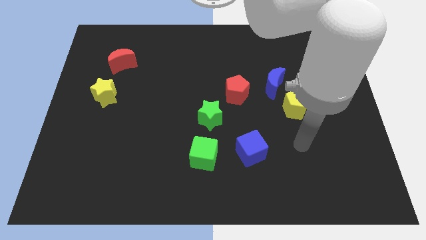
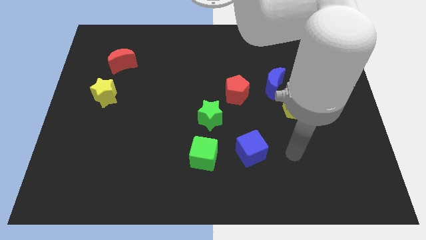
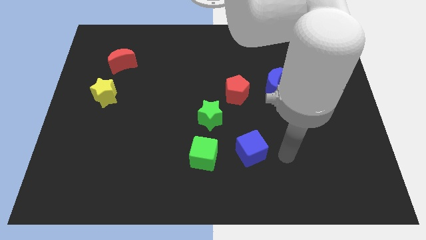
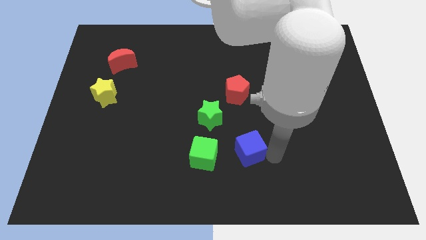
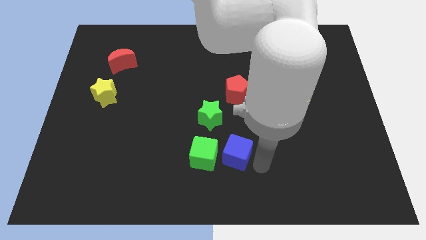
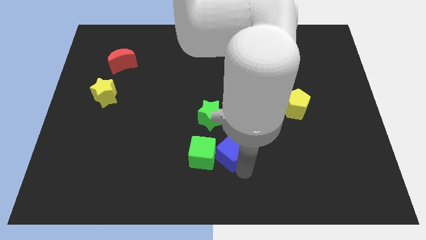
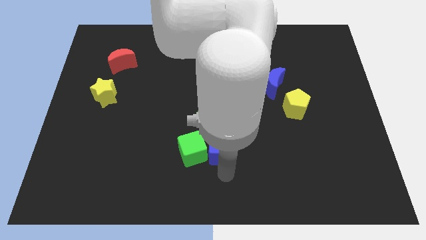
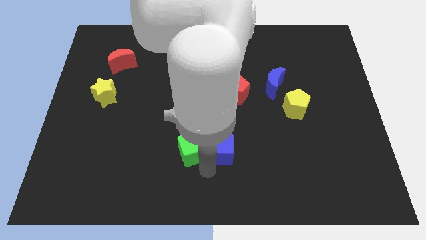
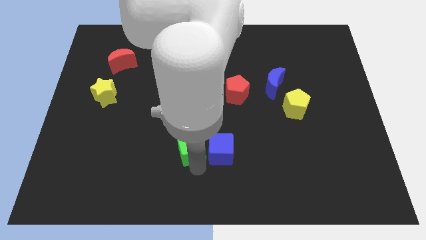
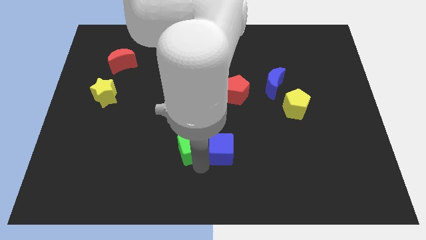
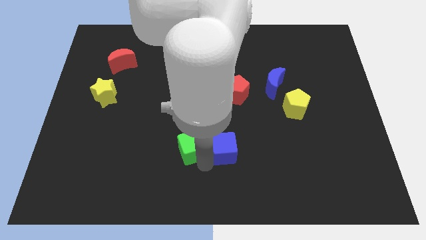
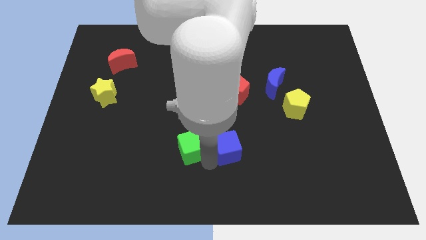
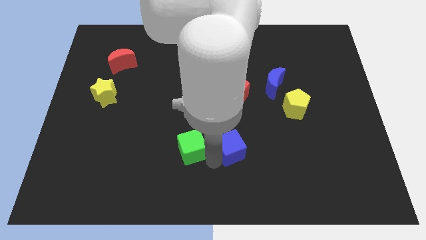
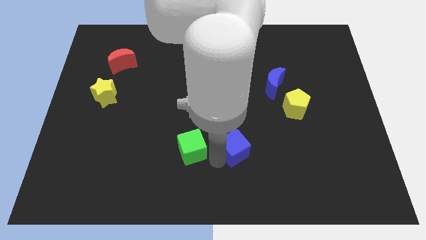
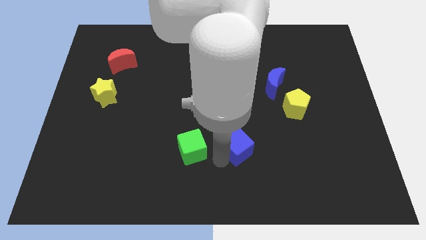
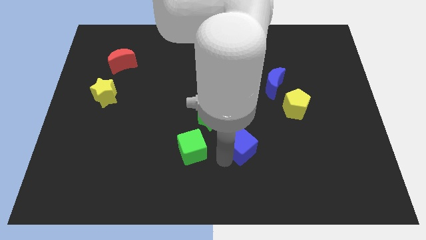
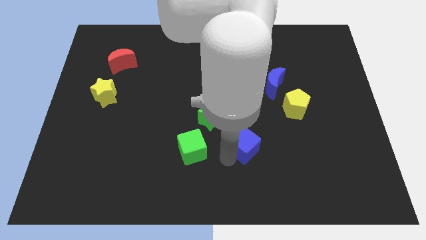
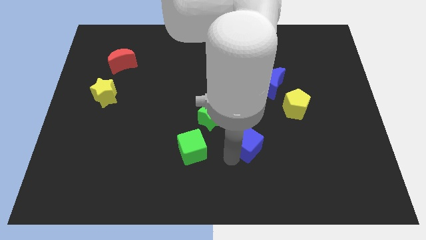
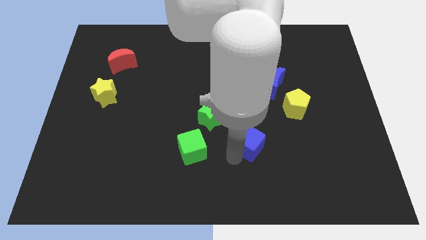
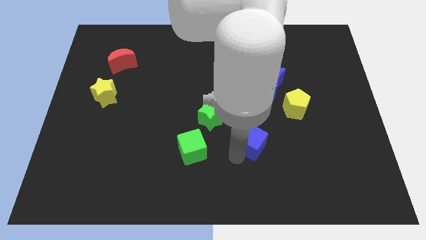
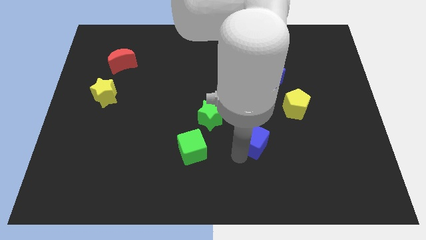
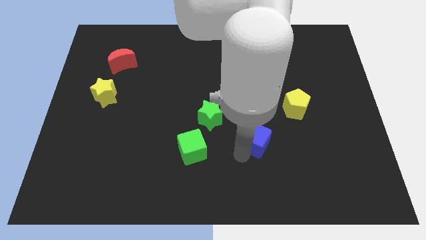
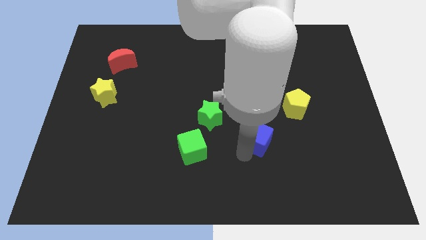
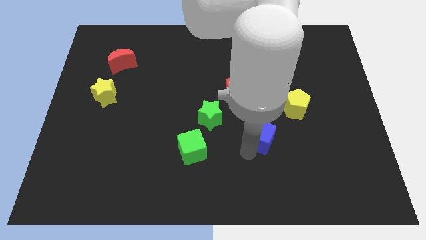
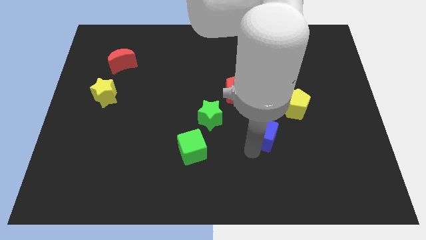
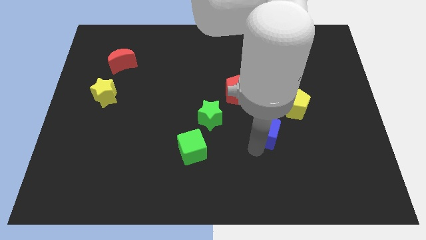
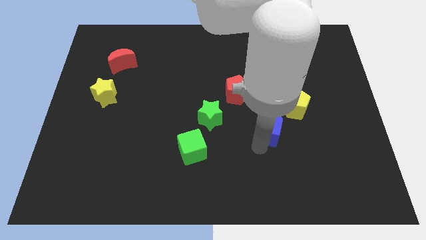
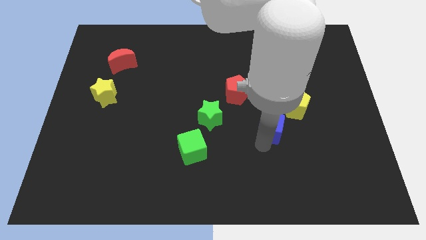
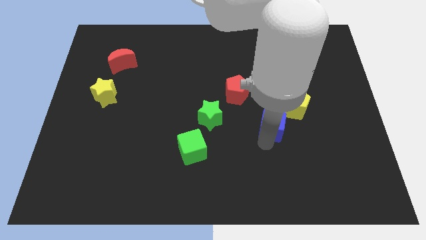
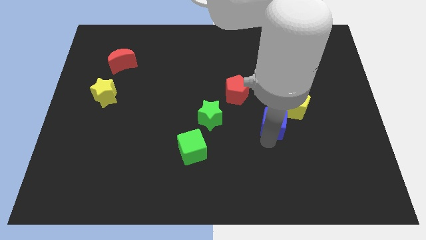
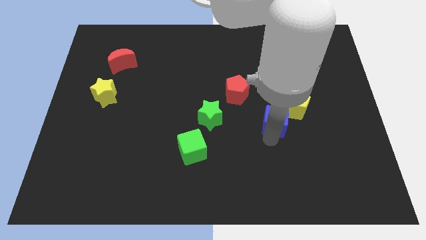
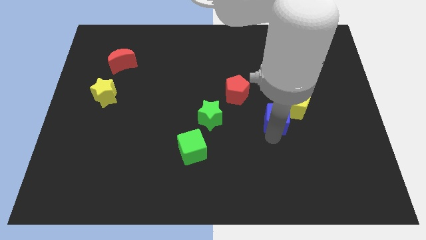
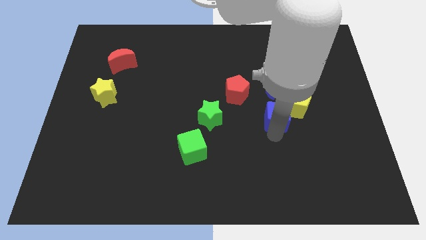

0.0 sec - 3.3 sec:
slightly move the blue cube upwards

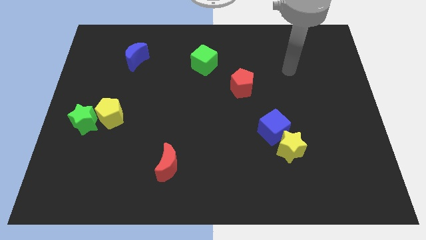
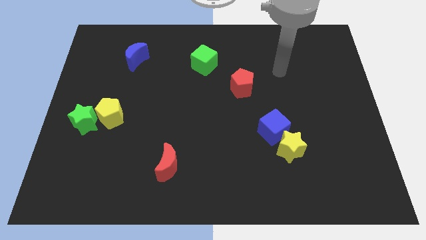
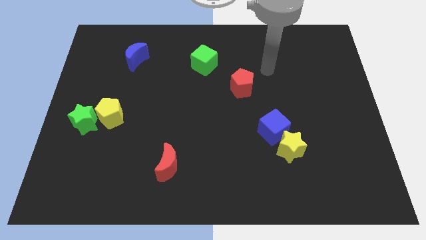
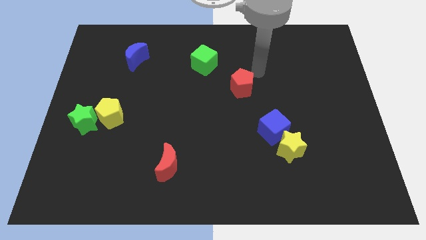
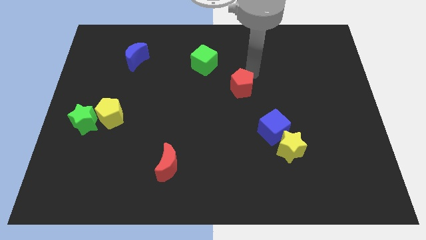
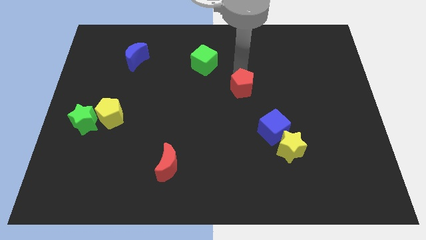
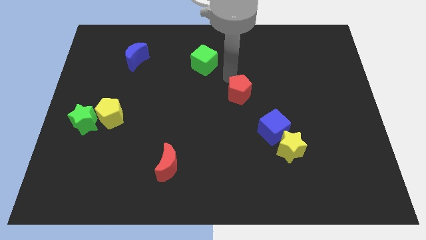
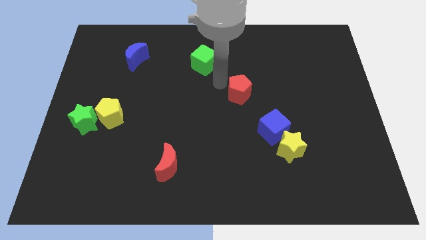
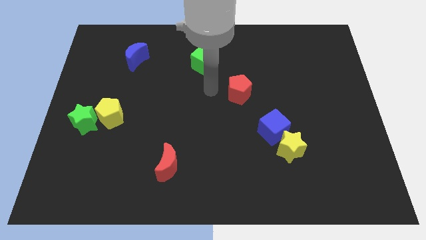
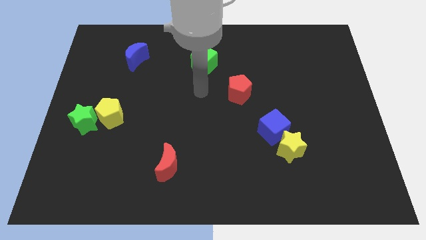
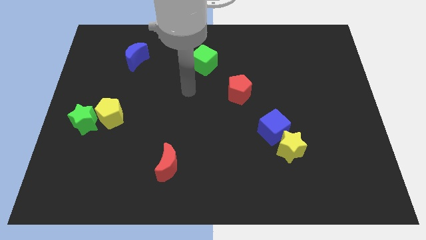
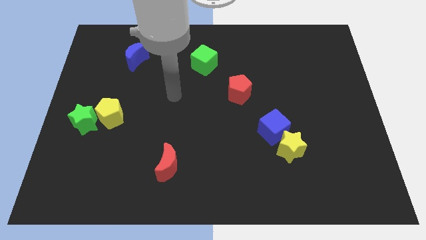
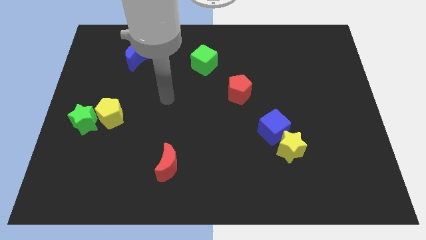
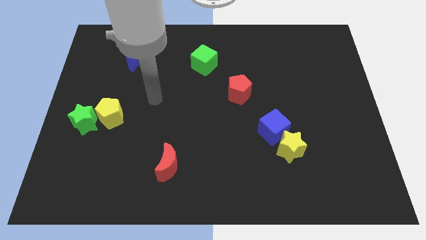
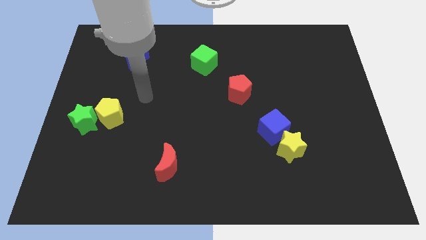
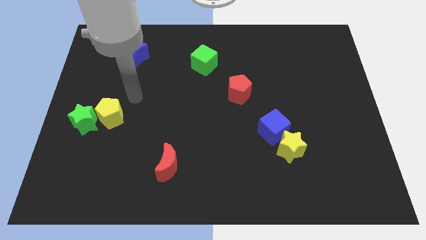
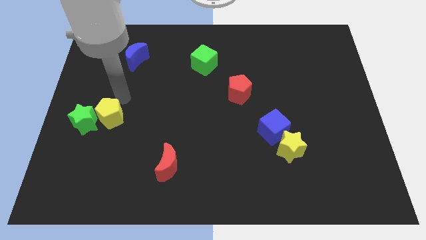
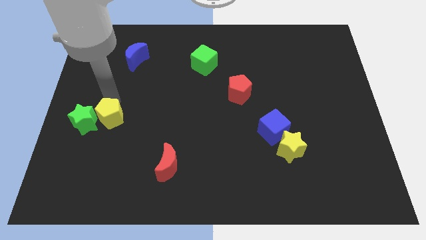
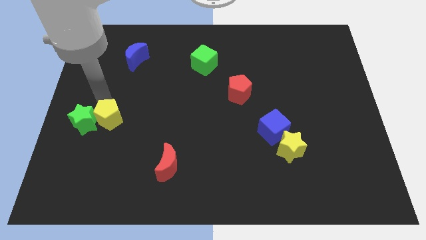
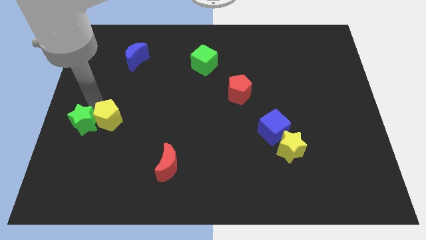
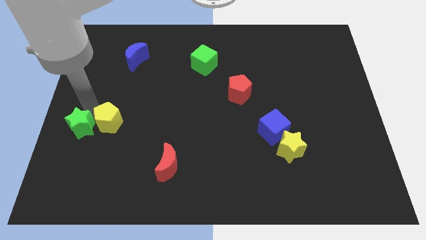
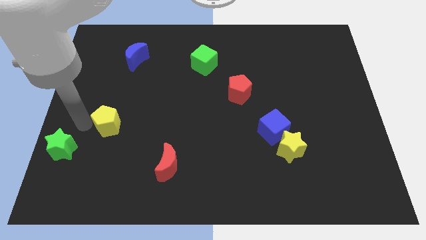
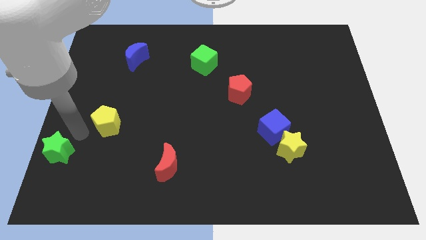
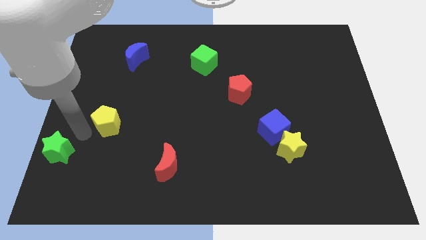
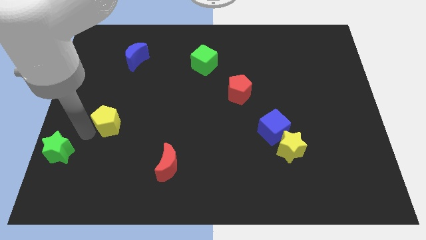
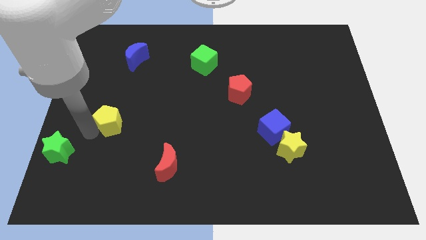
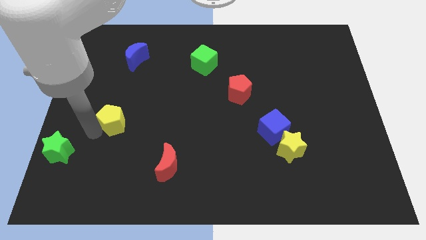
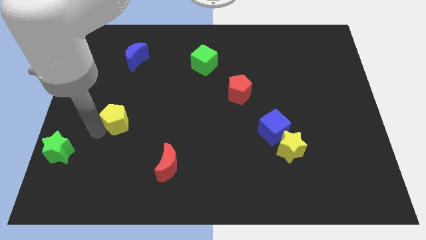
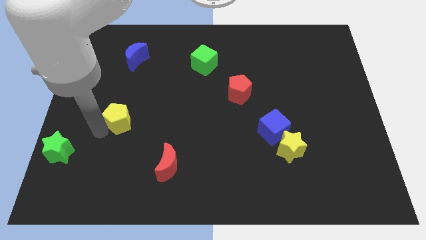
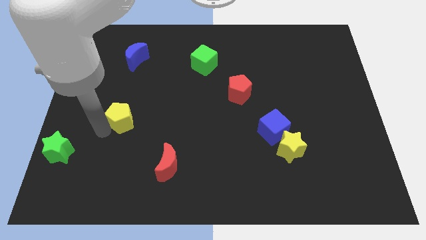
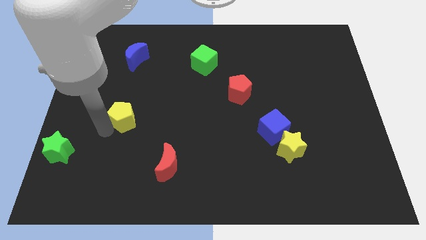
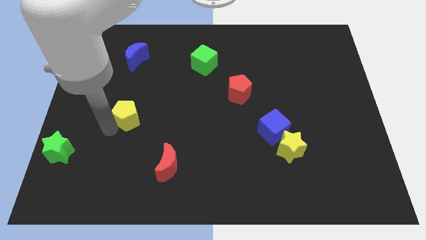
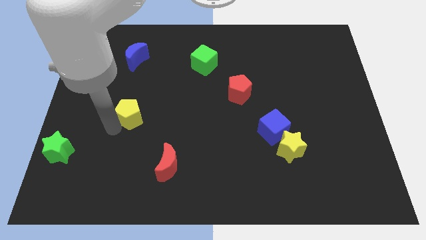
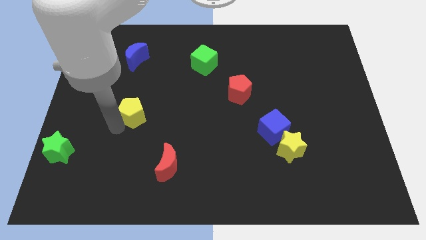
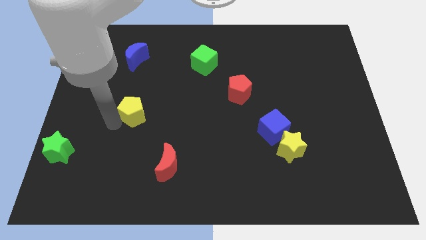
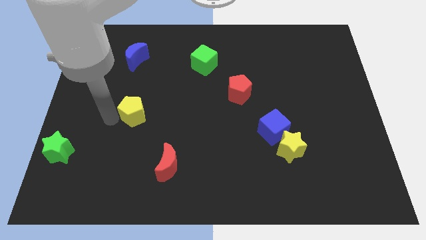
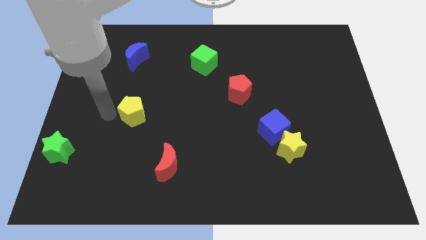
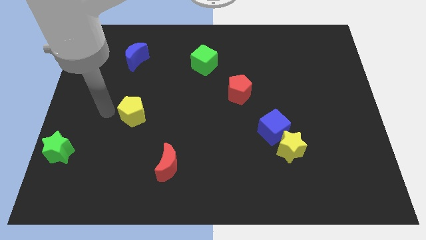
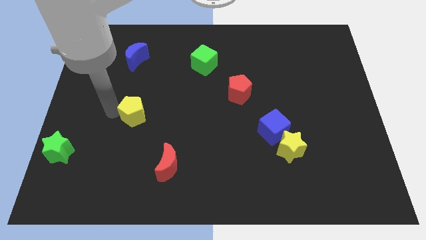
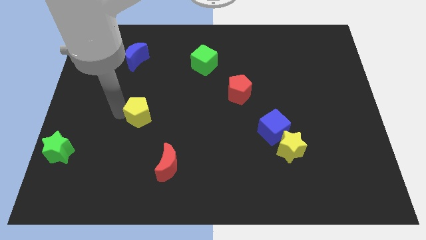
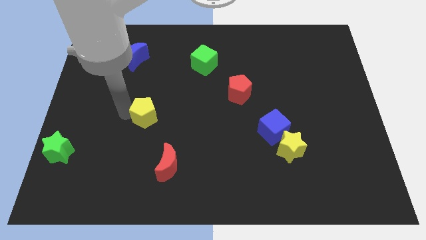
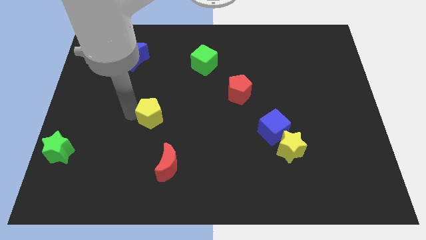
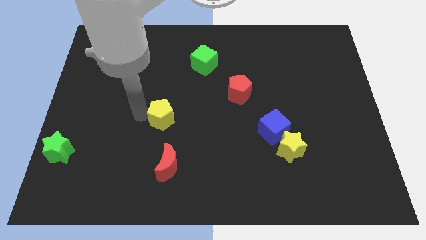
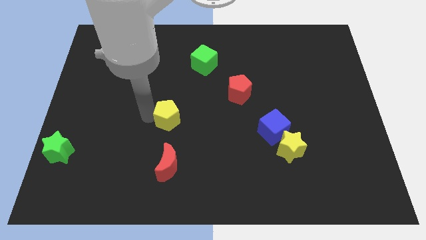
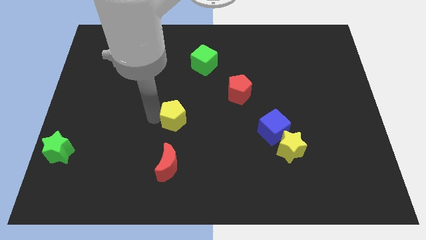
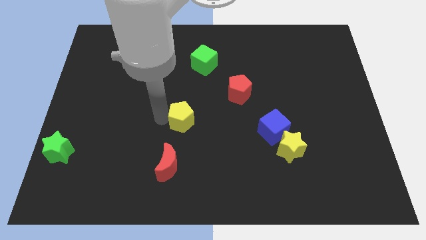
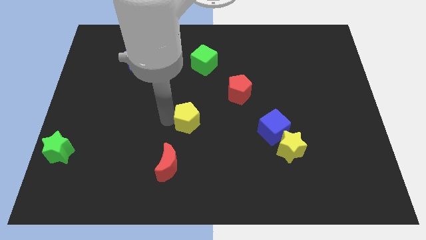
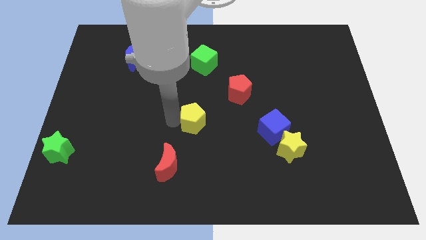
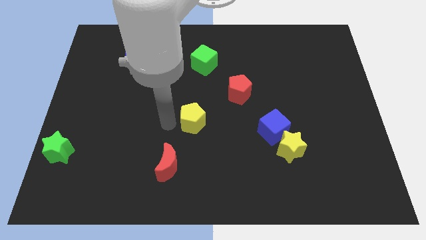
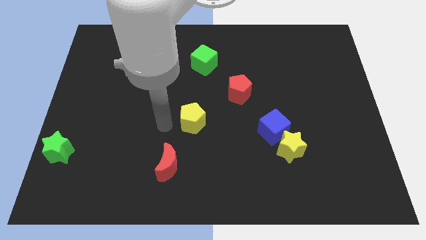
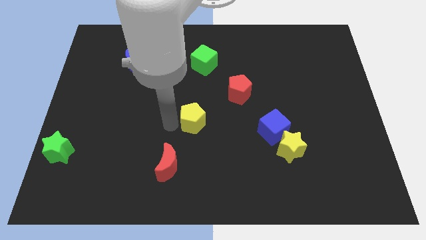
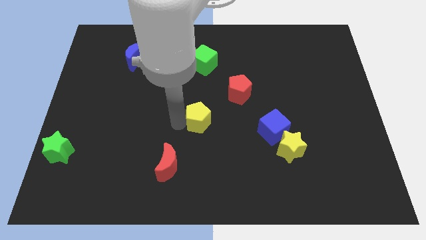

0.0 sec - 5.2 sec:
move the yellow pentagon to the right
